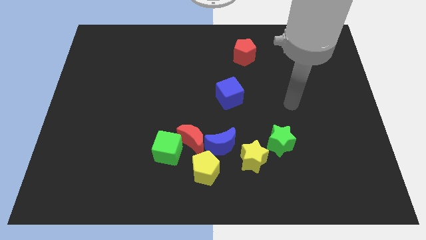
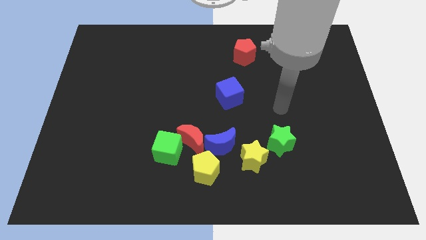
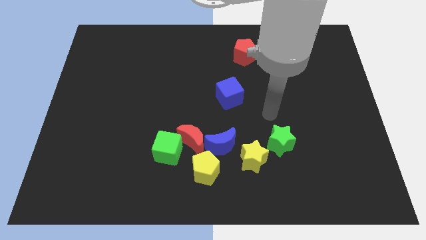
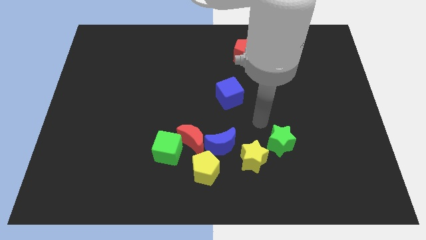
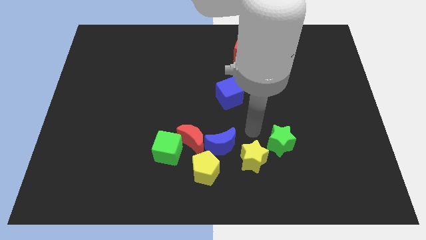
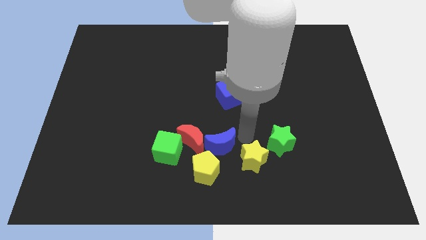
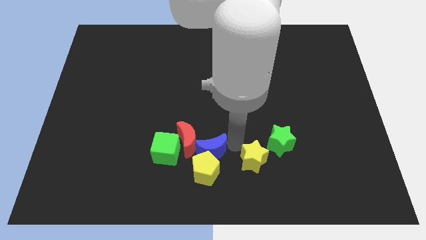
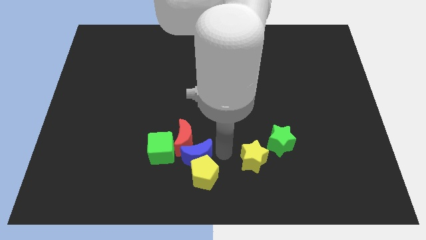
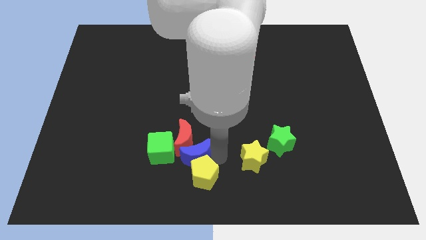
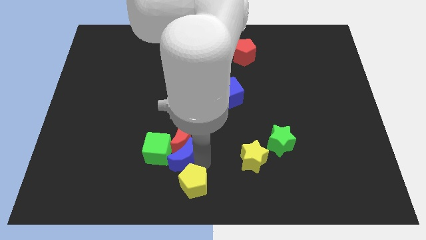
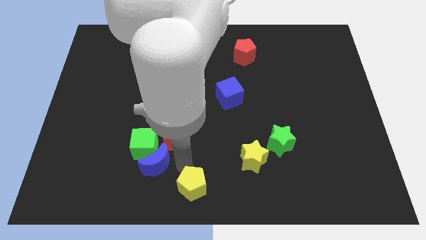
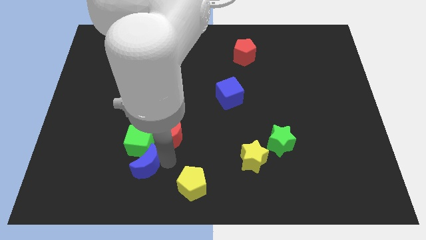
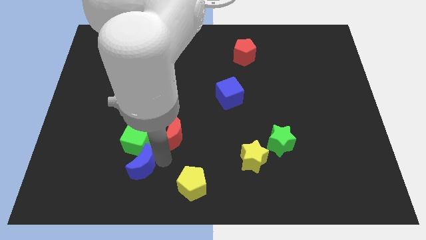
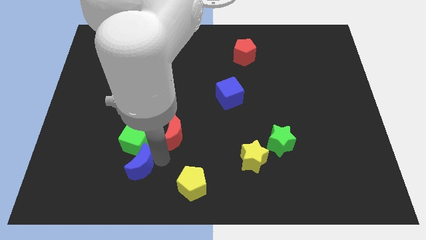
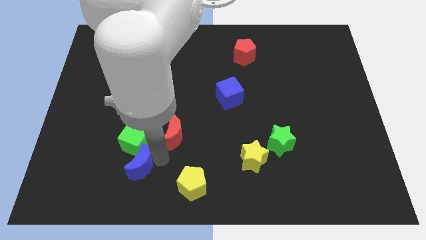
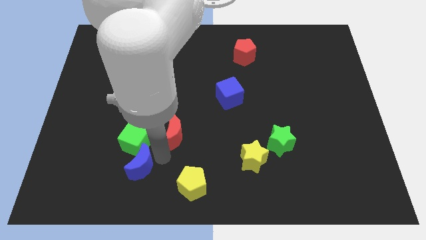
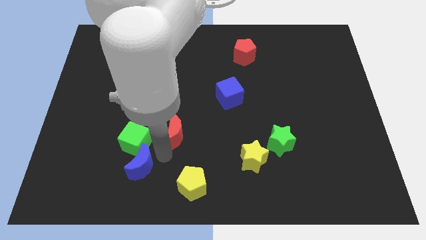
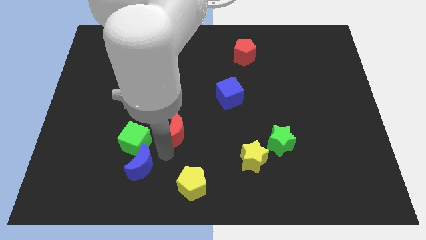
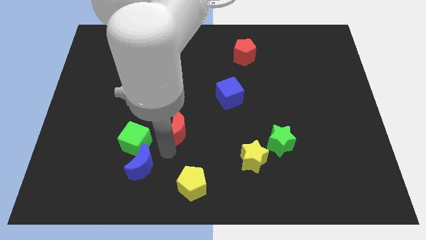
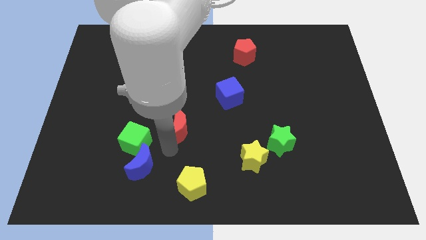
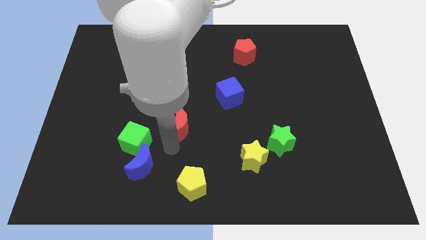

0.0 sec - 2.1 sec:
pull the red moon apart from the green cube, blue moon, and yellow pentagon

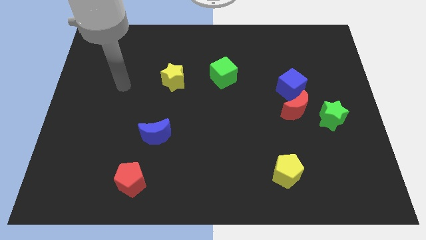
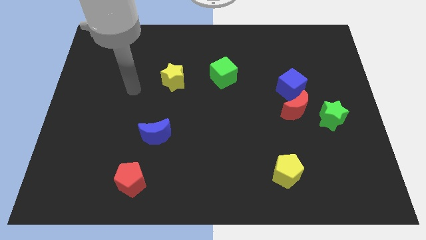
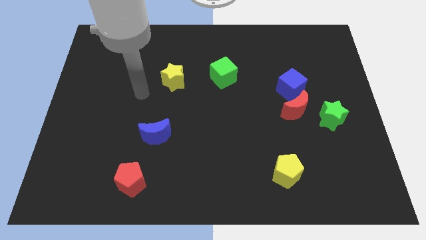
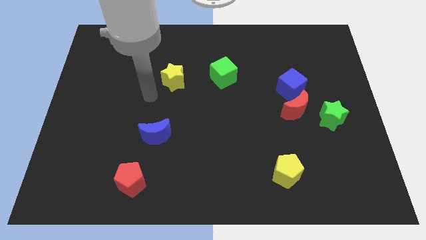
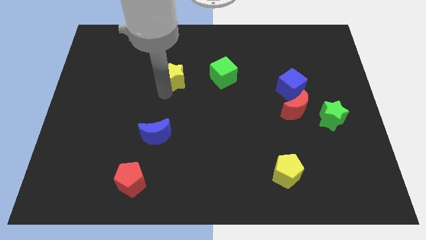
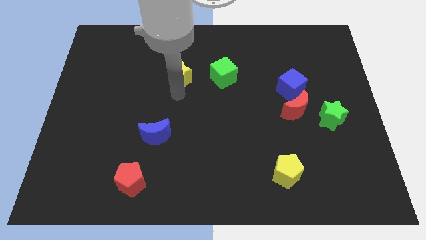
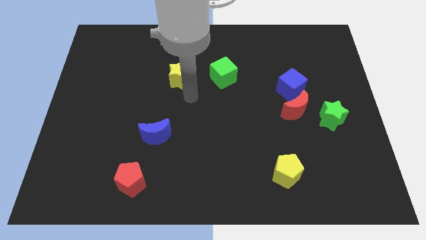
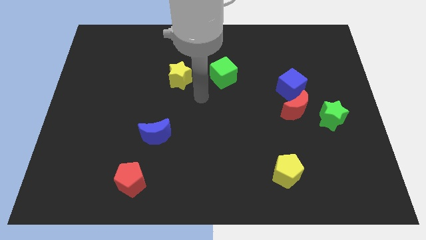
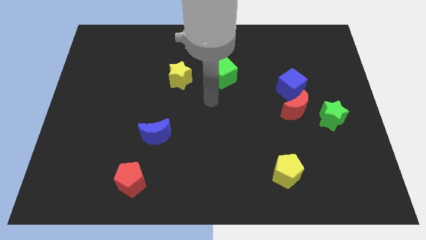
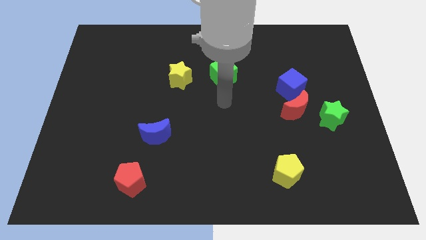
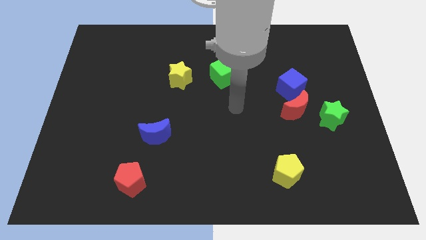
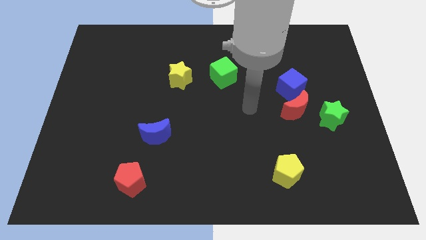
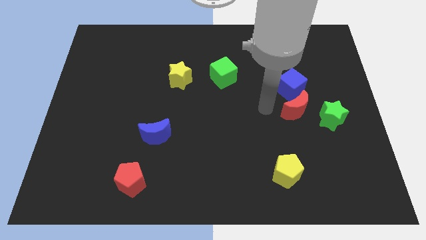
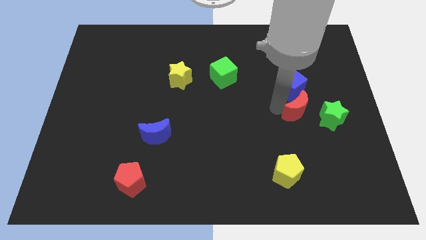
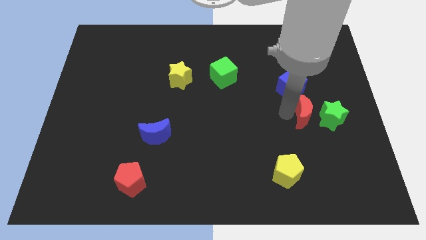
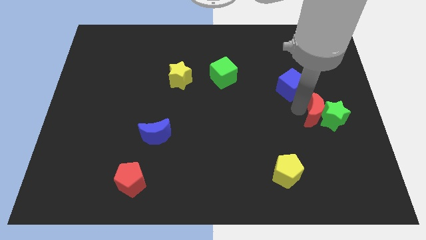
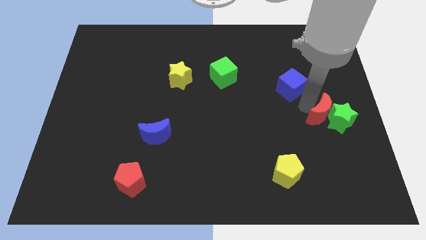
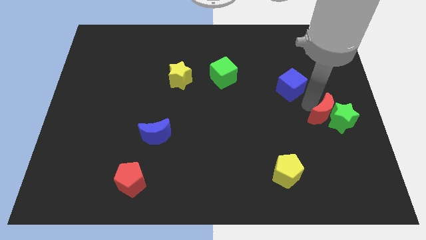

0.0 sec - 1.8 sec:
separate the blue cube from the red moon

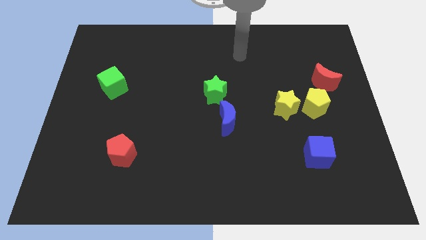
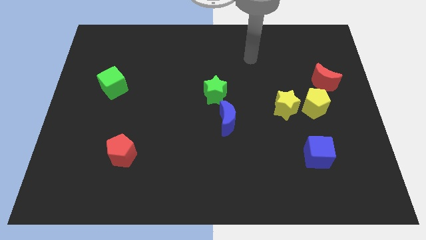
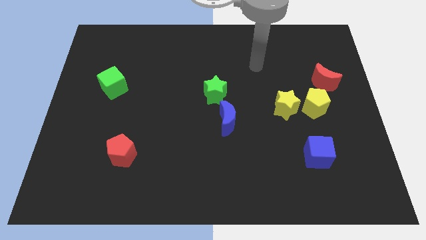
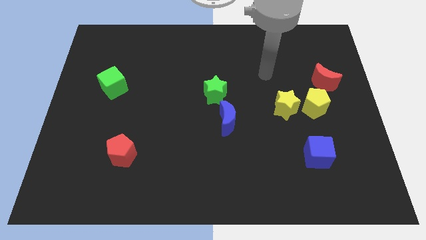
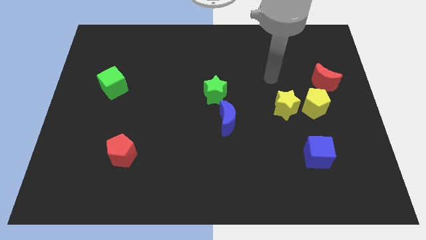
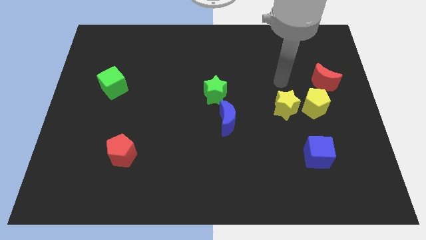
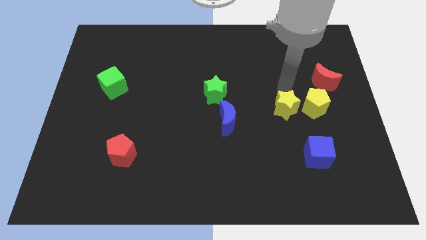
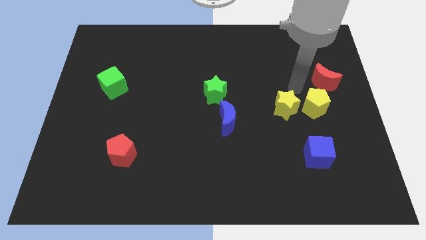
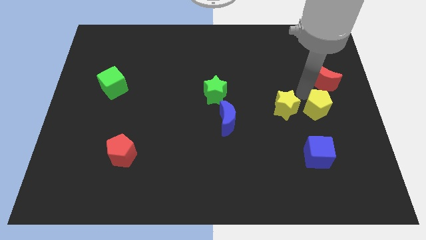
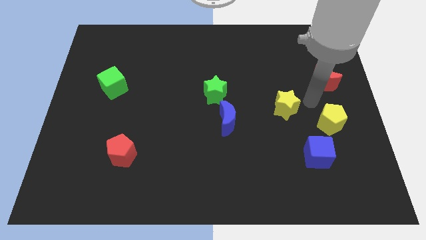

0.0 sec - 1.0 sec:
separate the yellow star from the yellow pentagon

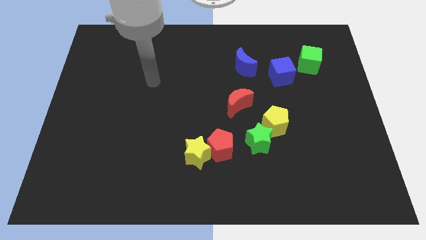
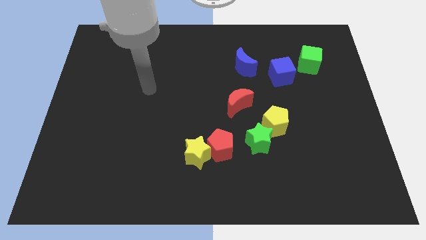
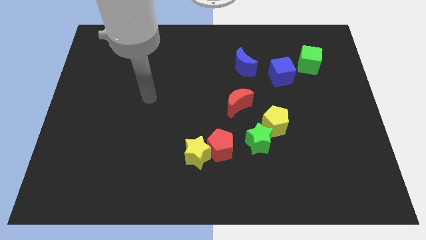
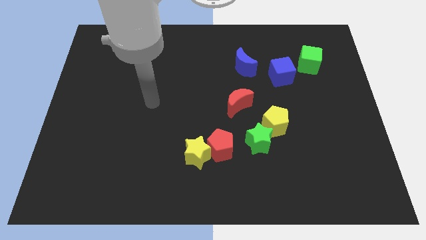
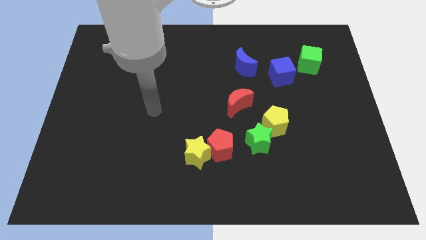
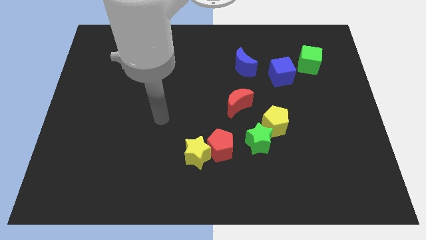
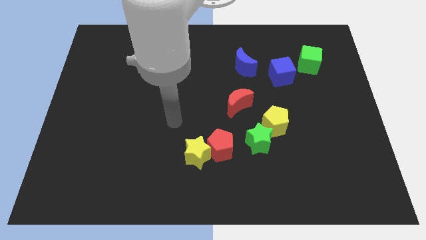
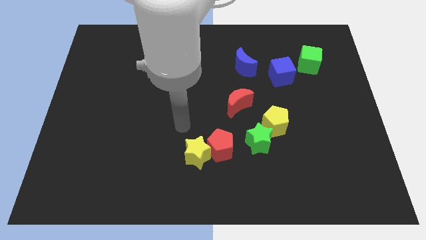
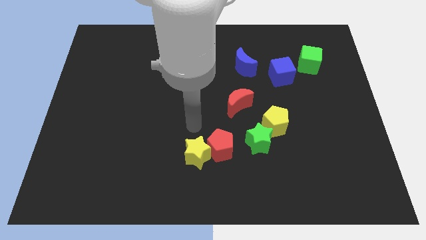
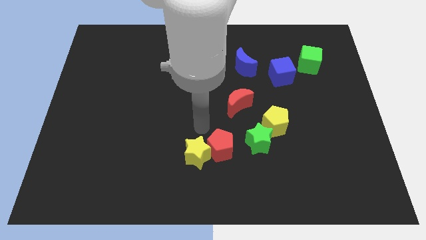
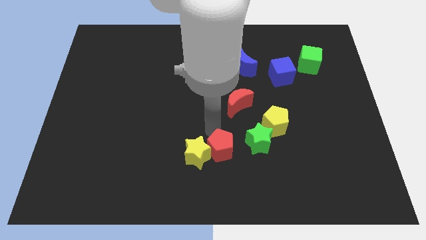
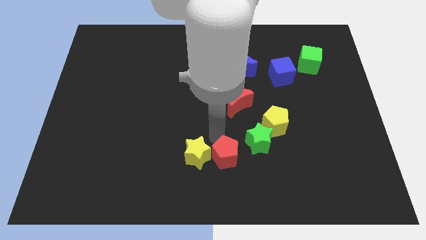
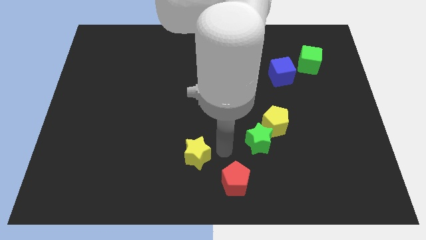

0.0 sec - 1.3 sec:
pull the yellow star apart from the red pentagon

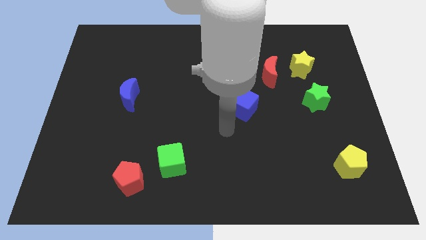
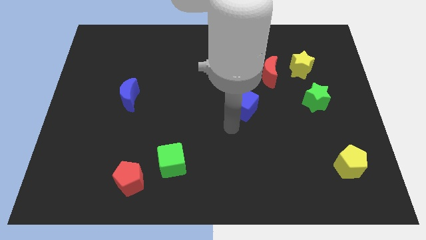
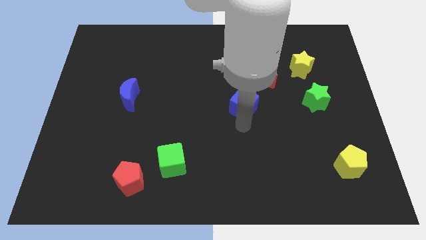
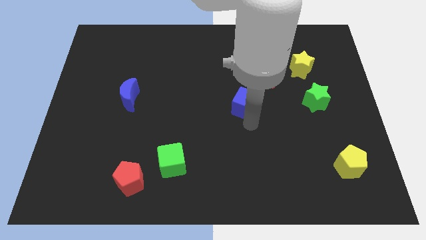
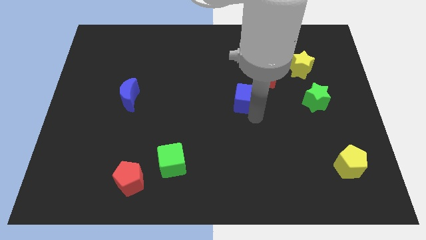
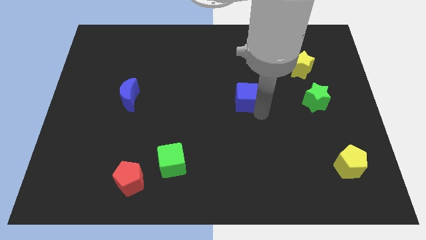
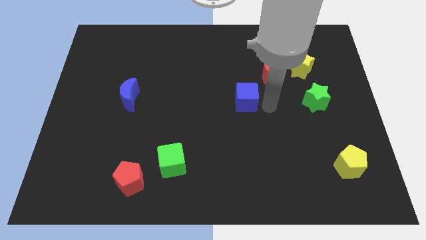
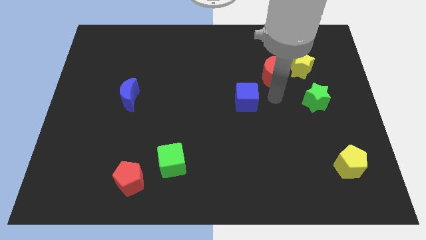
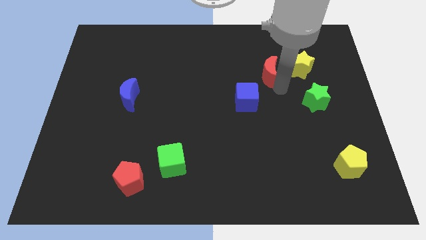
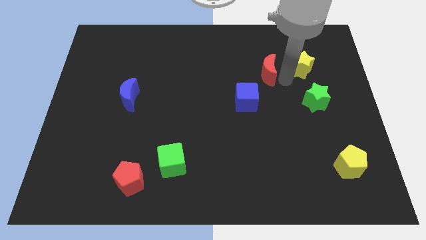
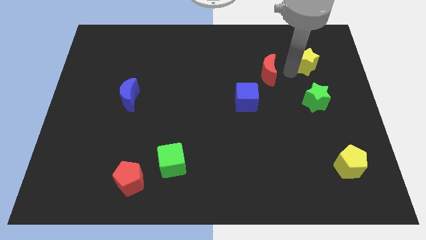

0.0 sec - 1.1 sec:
separate the red moon from the yellow star

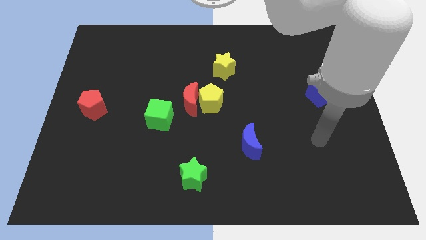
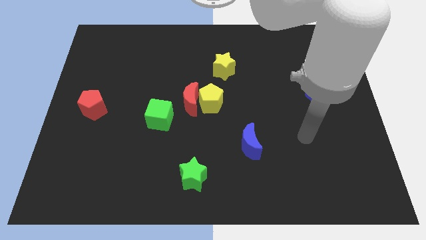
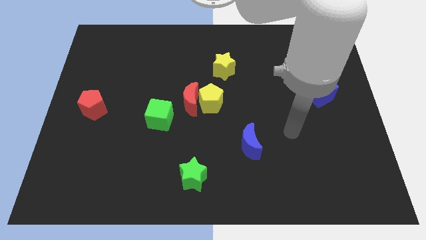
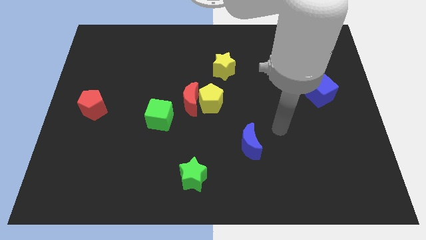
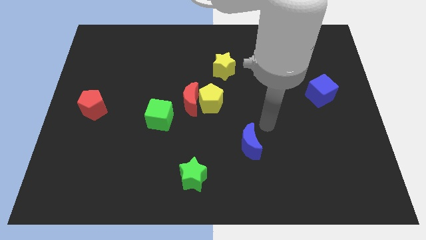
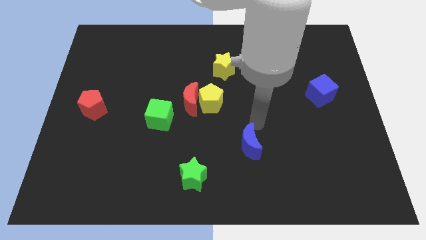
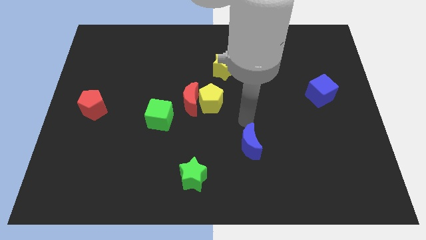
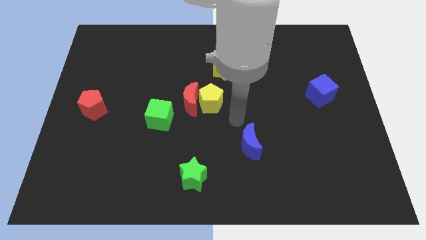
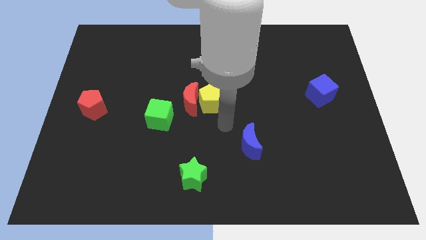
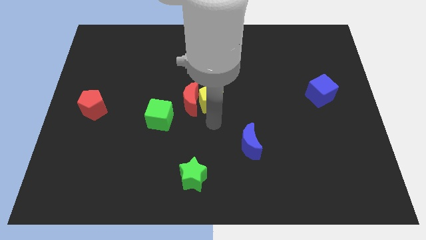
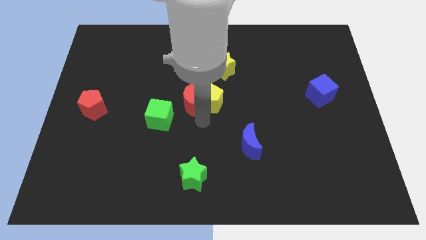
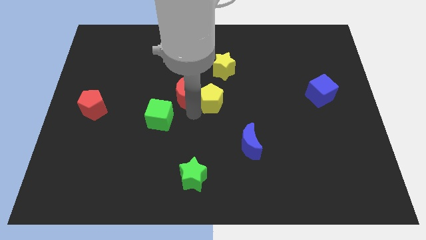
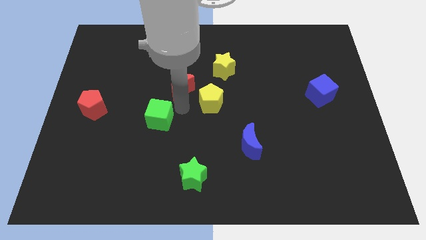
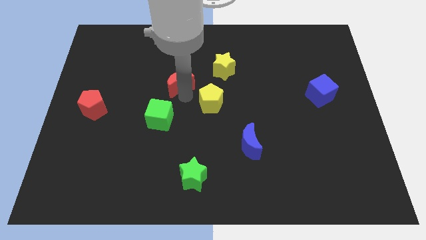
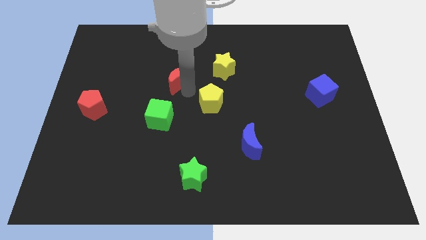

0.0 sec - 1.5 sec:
move the yellow pentagon away from the red moon

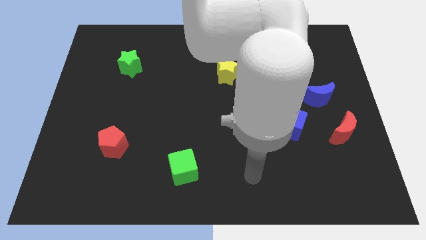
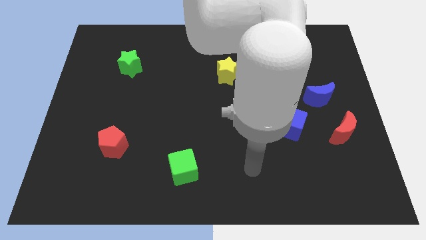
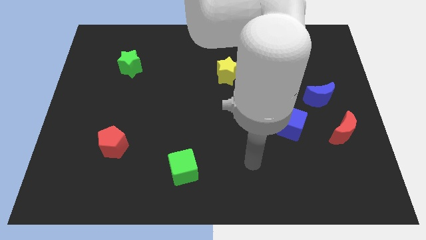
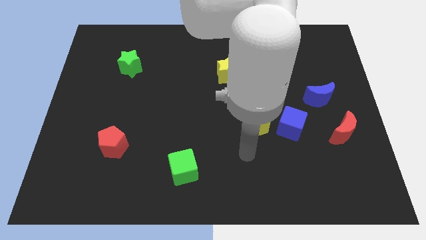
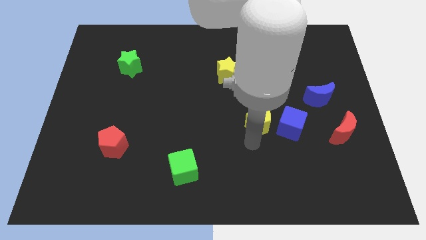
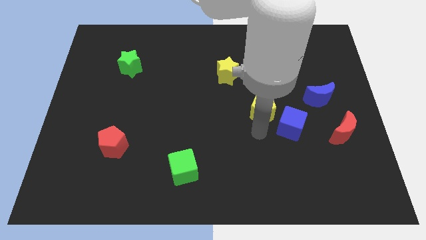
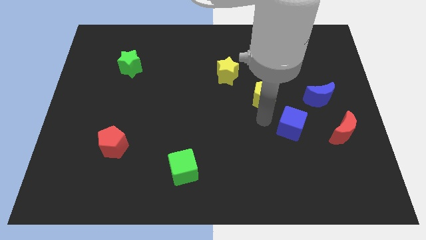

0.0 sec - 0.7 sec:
pull the blue cube apart from the yellow pentagon
